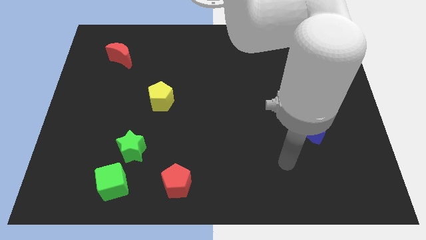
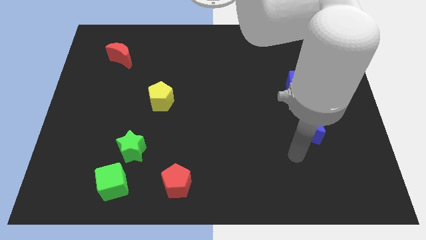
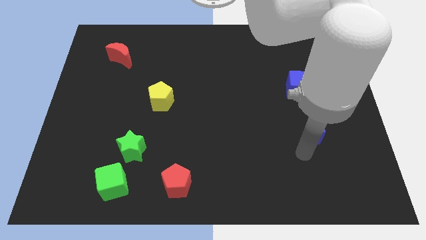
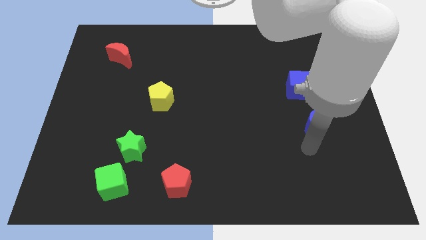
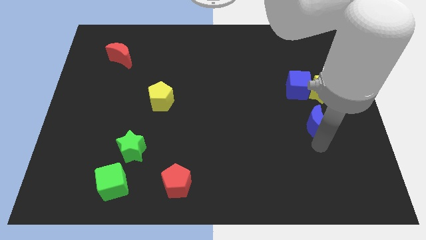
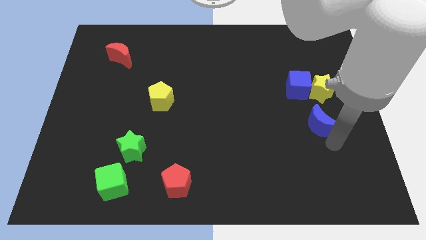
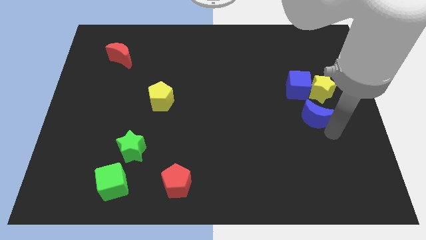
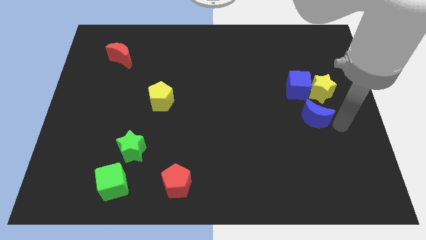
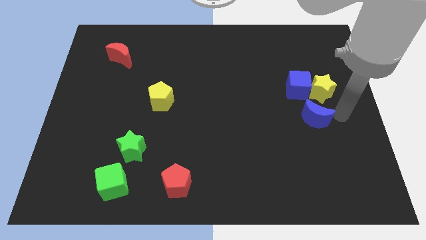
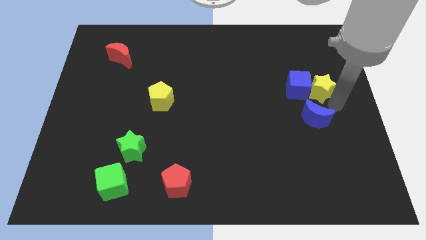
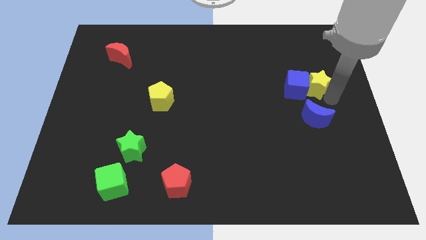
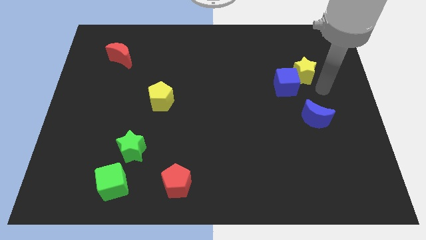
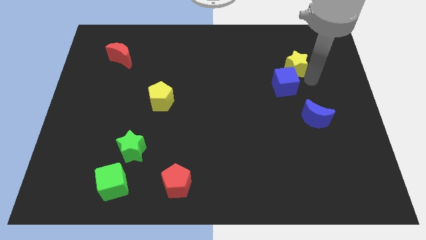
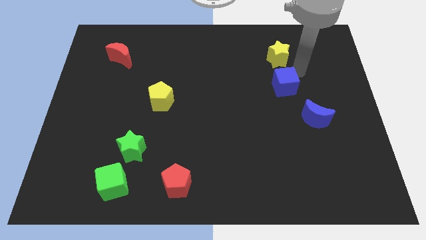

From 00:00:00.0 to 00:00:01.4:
pull the blue cube apart from the yellow star

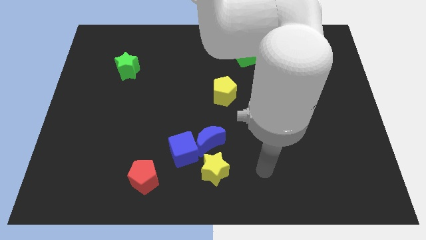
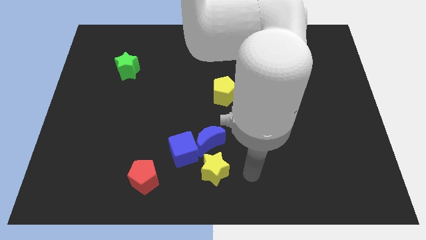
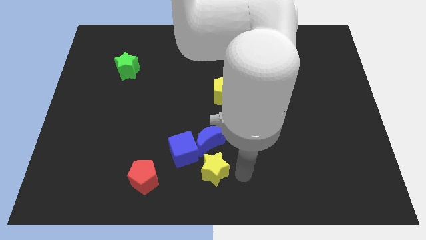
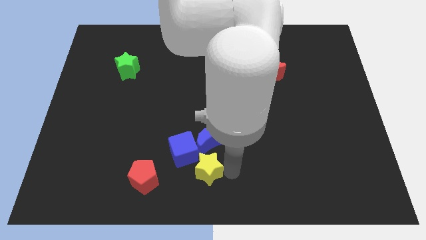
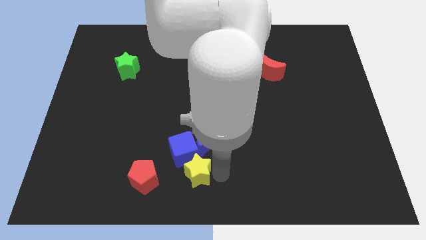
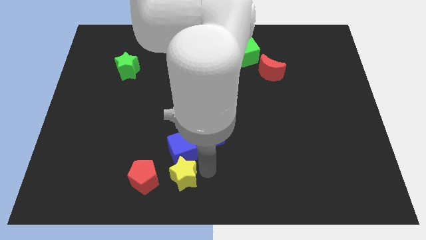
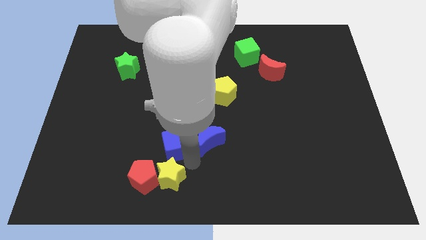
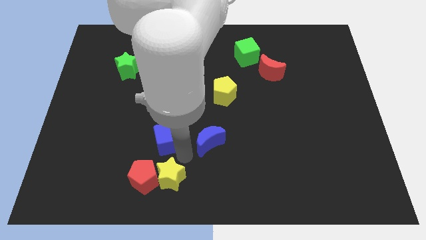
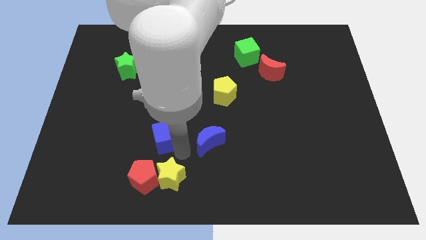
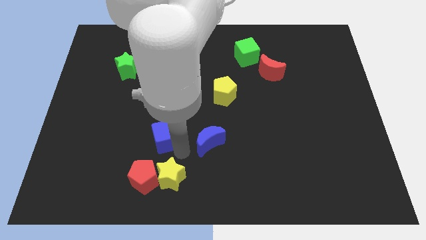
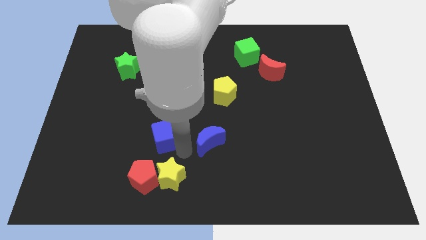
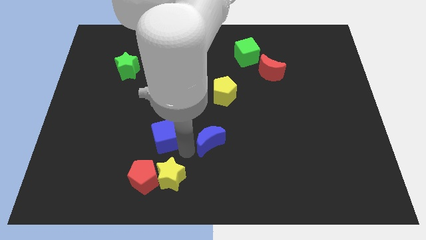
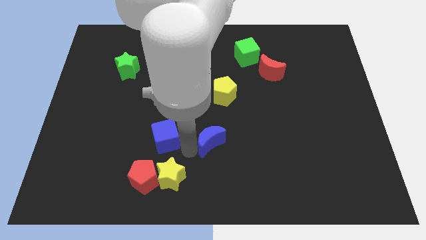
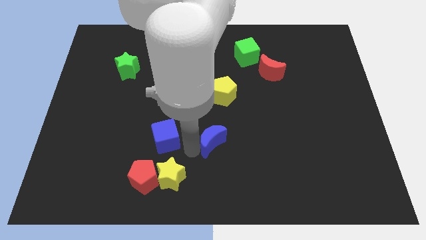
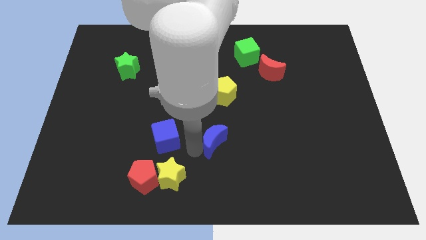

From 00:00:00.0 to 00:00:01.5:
separate the blue moon from the blue cube and yellow star

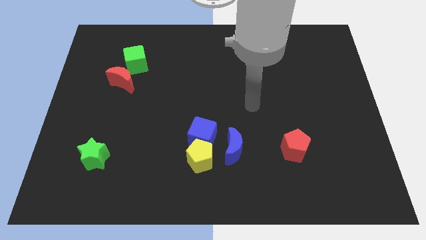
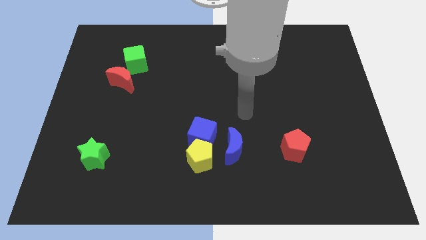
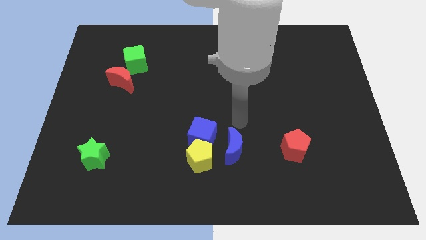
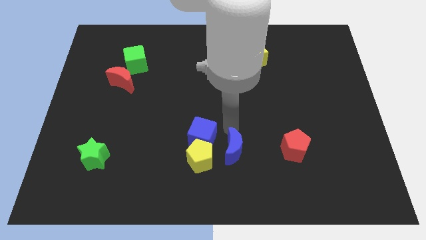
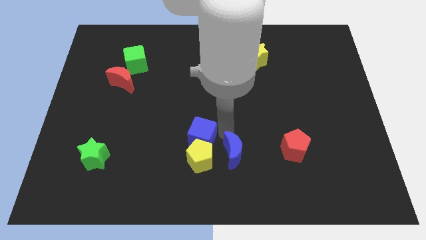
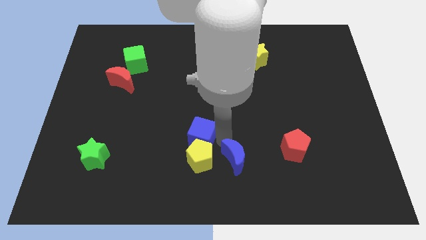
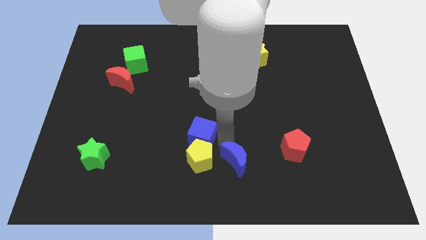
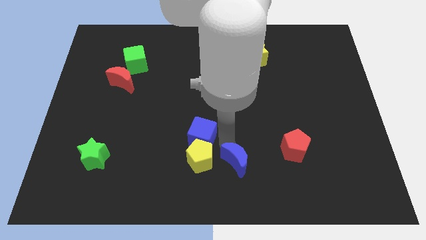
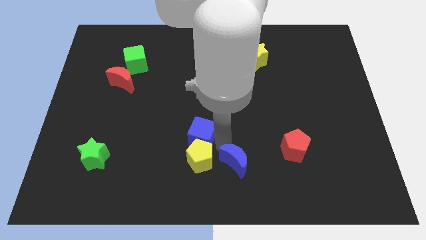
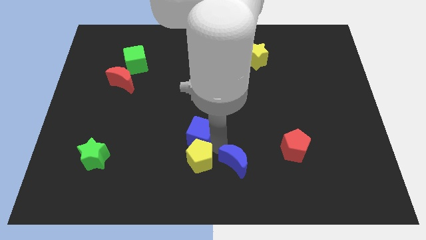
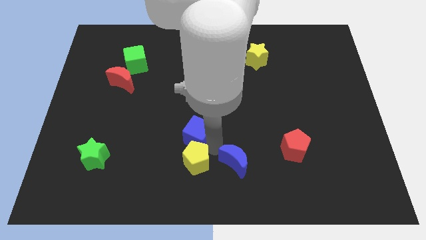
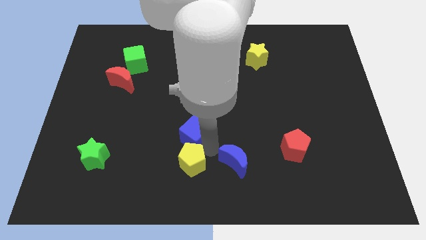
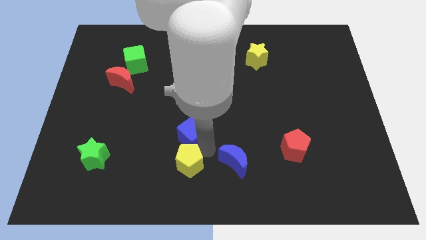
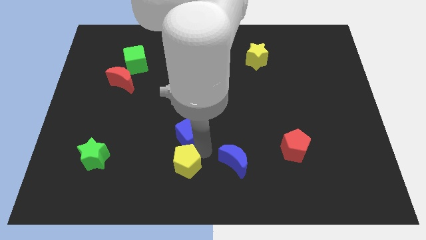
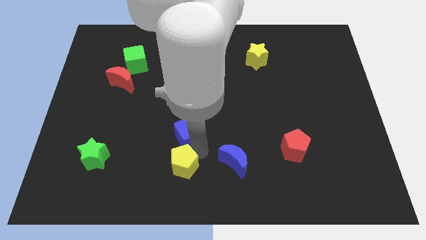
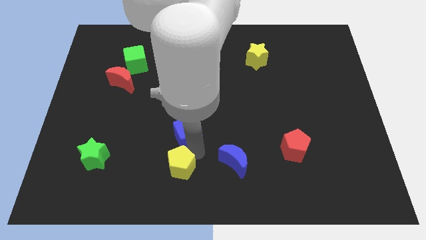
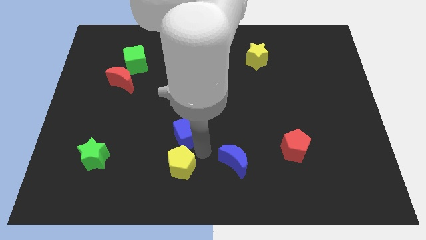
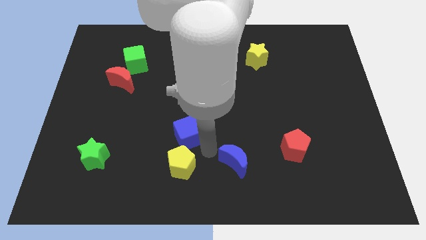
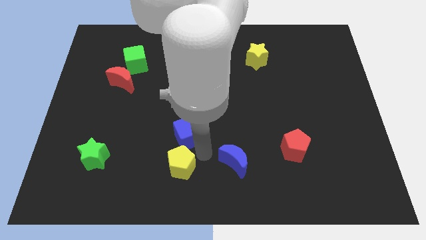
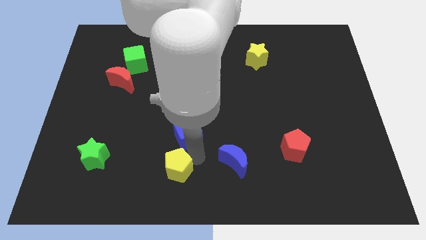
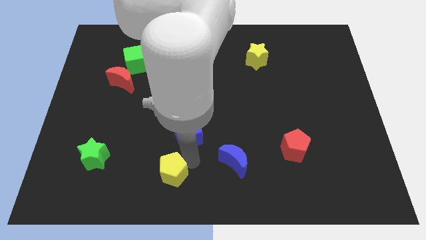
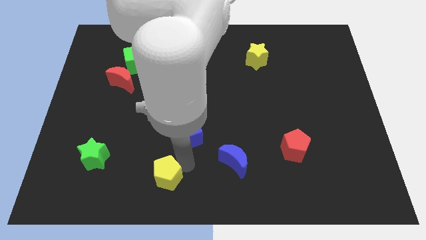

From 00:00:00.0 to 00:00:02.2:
move the yellow pentagon away from the blue cube and blue moon

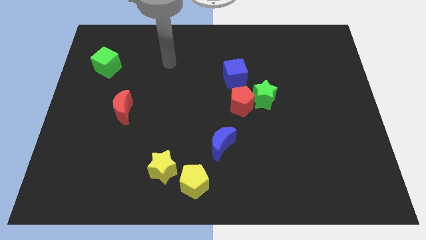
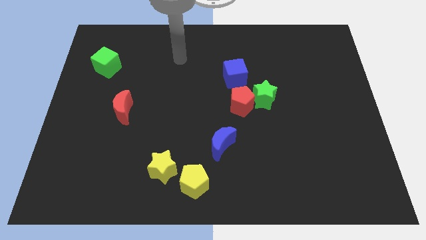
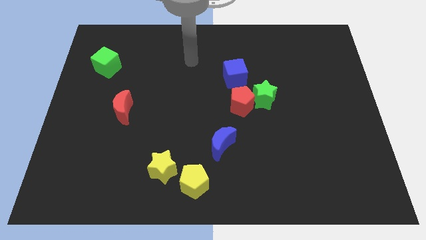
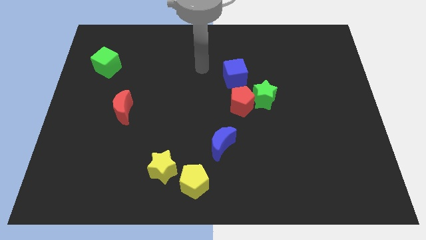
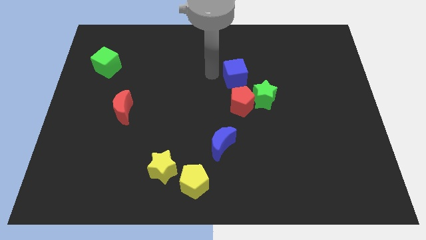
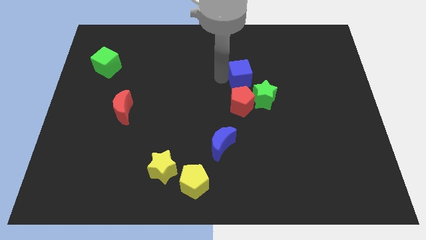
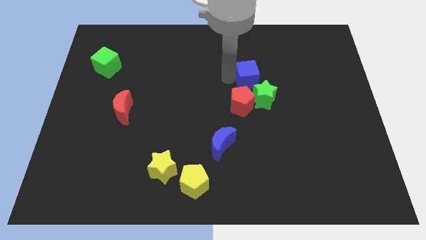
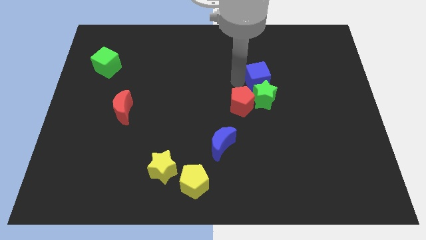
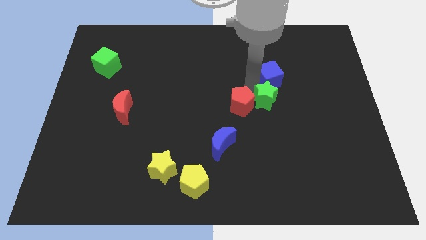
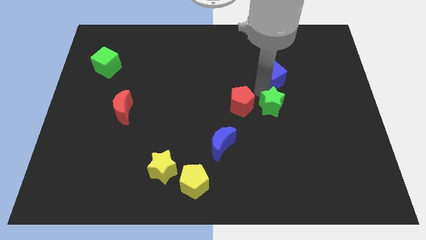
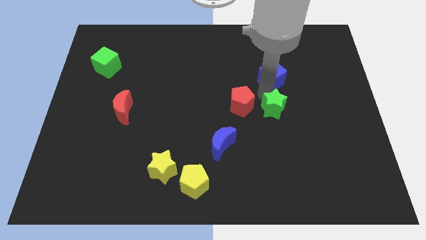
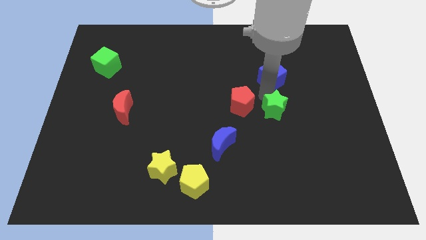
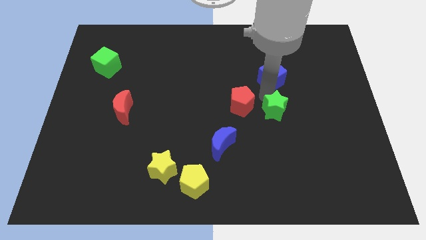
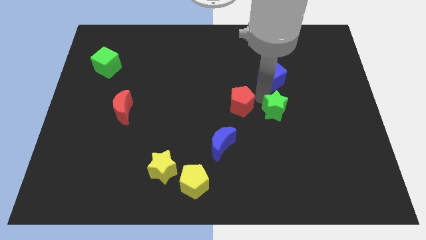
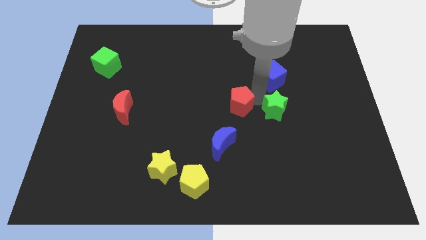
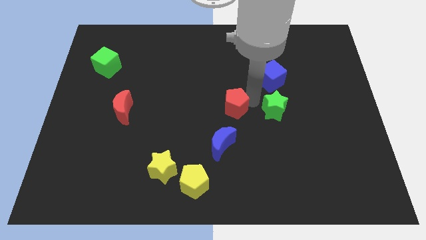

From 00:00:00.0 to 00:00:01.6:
move the red pentagon away from the green star and blue cube

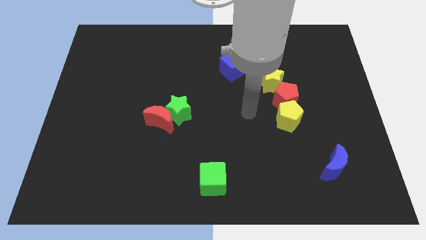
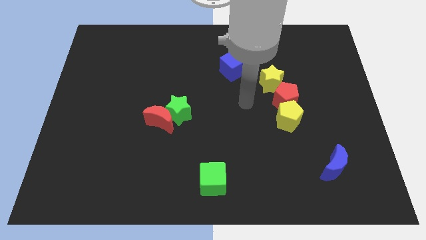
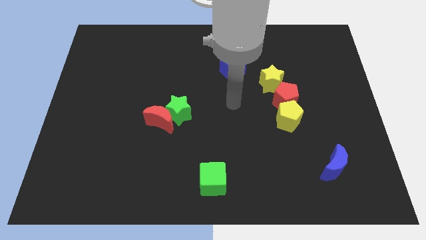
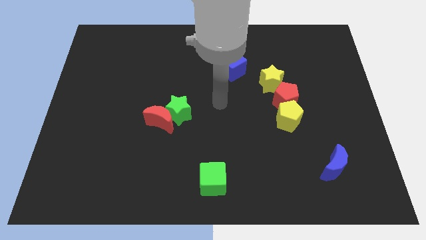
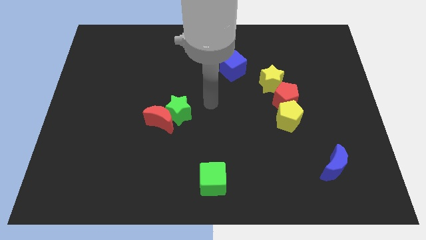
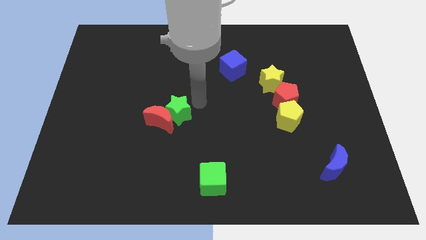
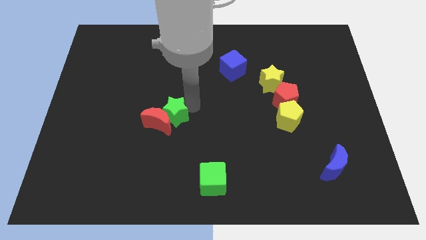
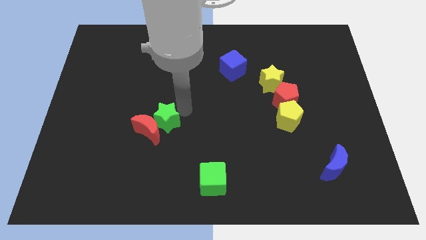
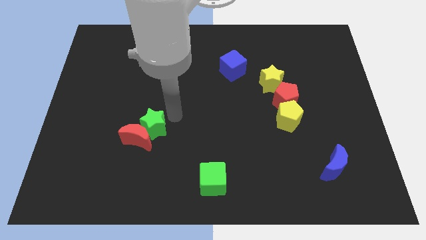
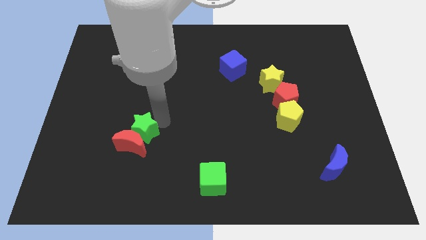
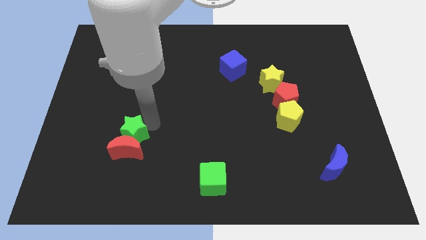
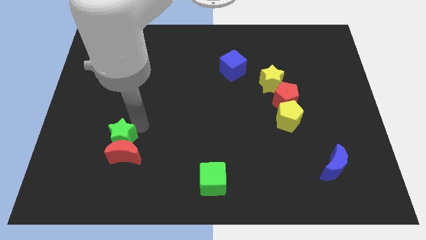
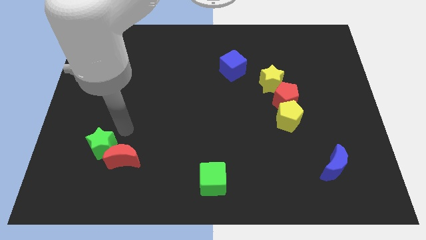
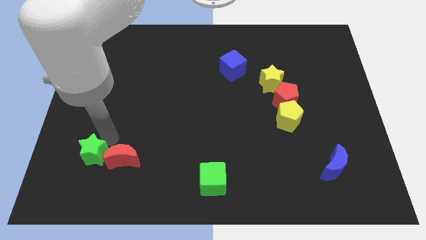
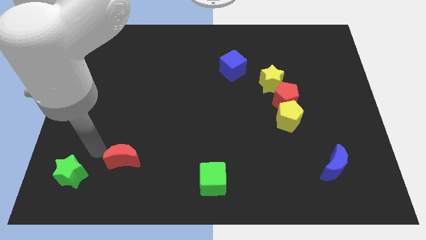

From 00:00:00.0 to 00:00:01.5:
pull the red moon apart from the green star

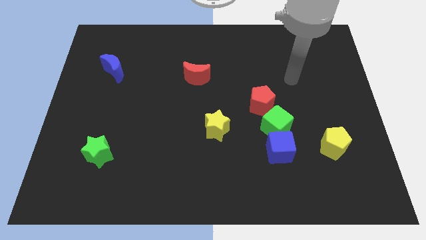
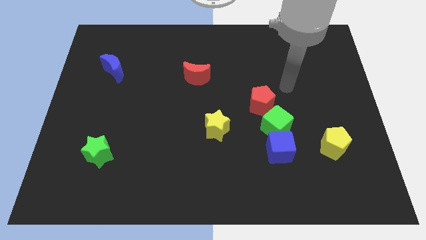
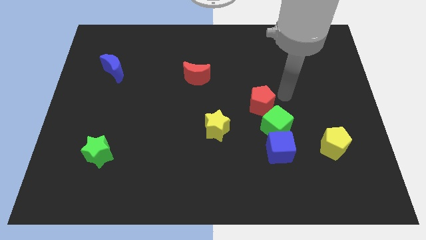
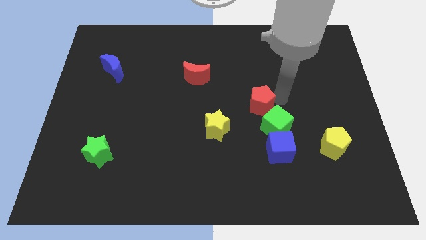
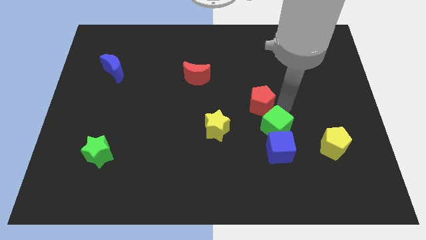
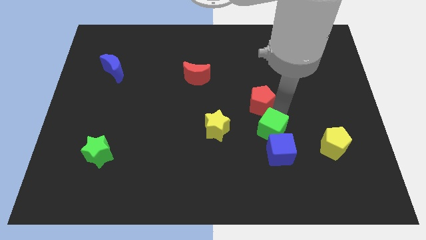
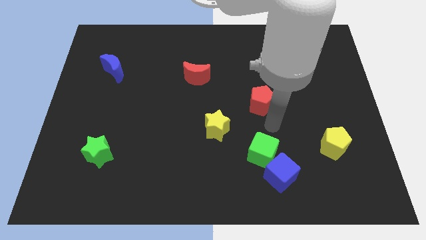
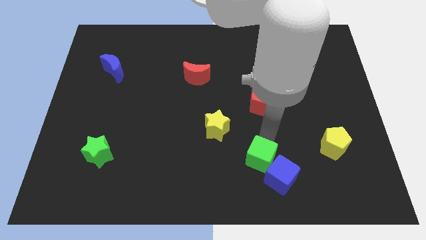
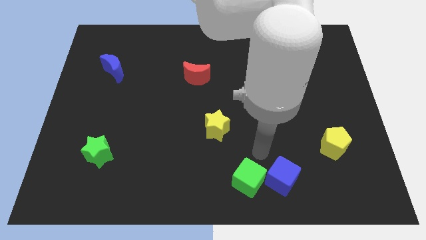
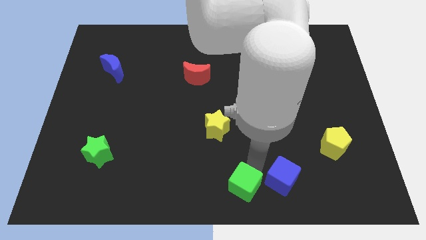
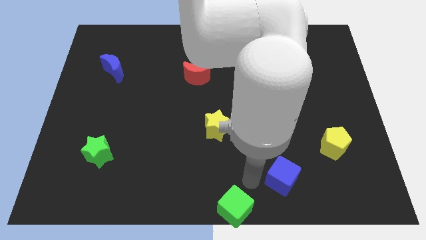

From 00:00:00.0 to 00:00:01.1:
move the blue cube away from the green cube
